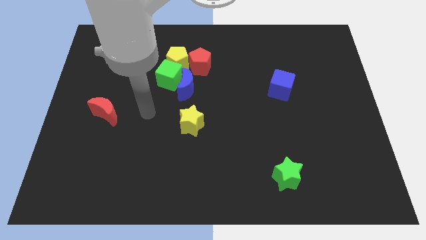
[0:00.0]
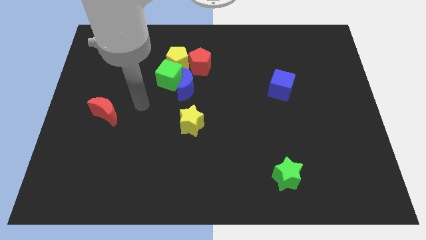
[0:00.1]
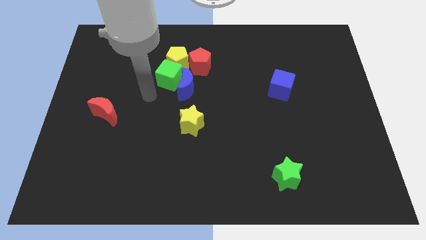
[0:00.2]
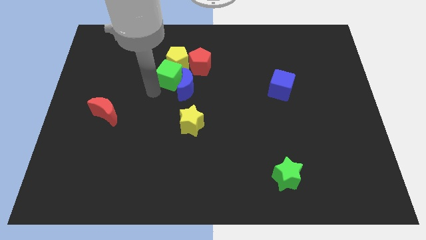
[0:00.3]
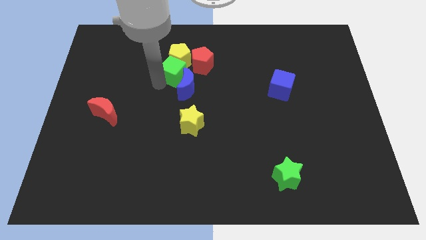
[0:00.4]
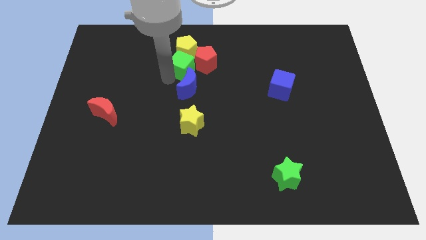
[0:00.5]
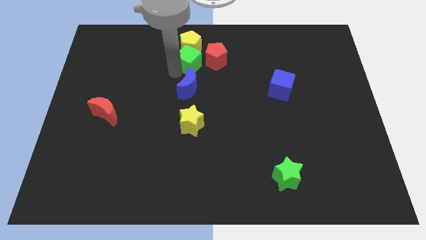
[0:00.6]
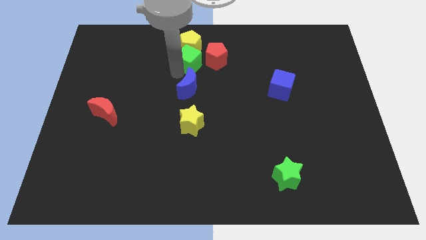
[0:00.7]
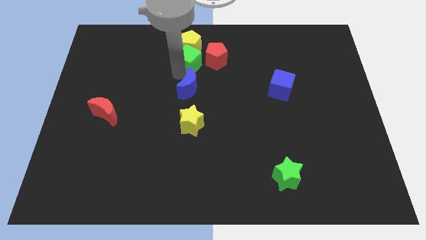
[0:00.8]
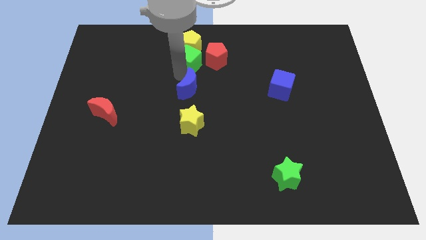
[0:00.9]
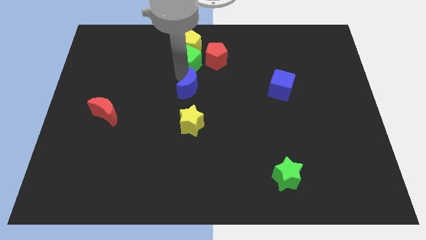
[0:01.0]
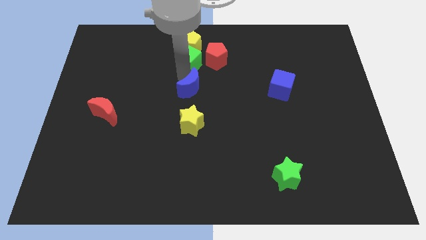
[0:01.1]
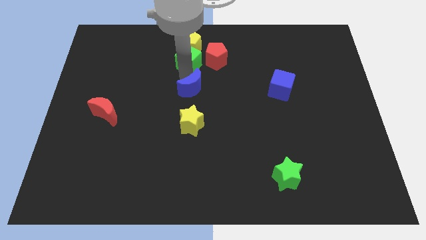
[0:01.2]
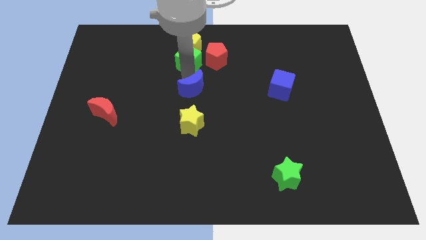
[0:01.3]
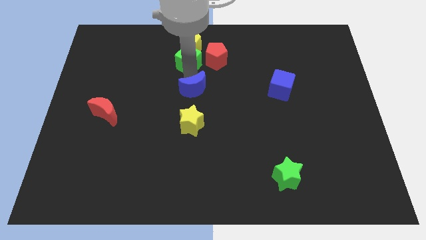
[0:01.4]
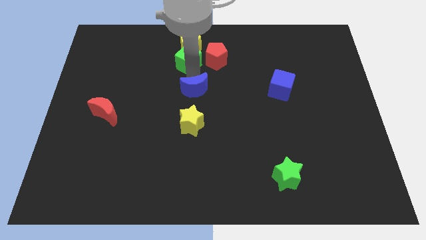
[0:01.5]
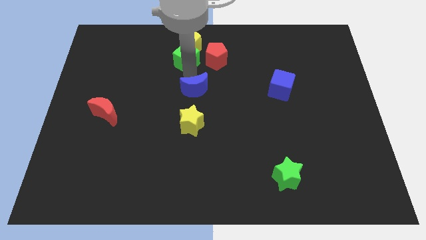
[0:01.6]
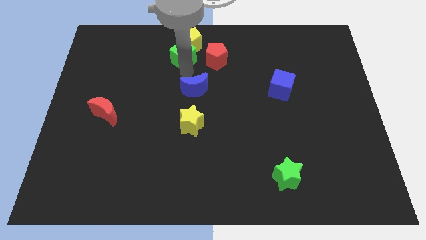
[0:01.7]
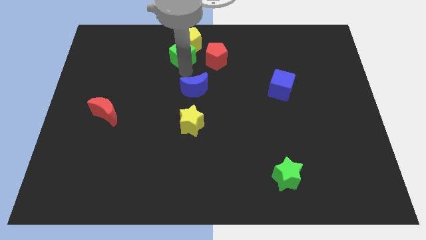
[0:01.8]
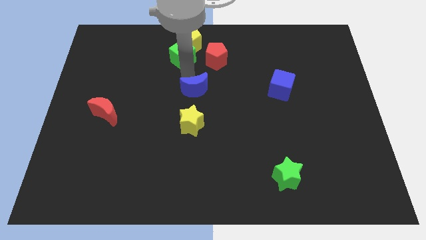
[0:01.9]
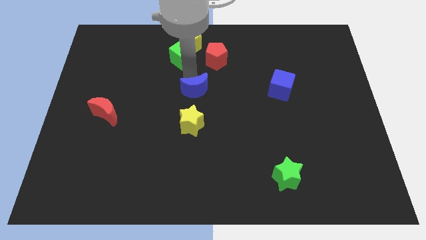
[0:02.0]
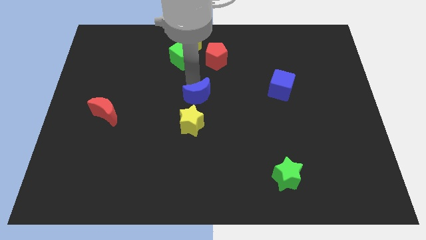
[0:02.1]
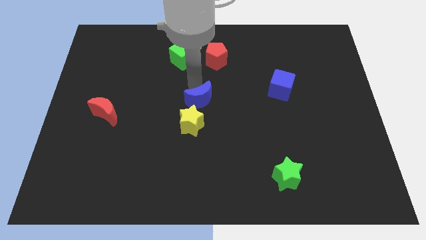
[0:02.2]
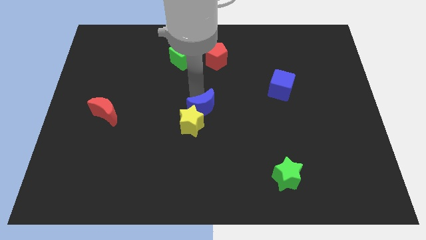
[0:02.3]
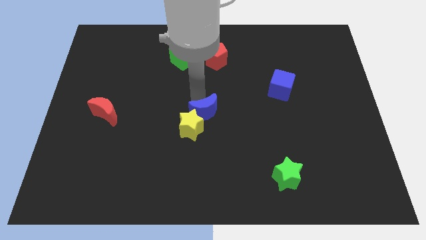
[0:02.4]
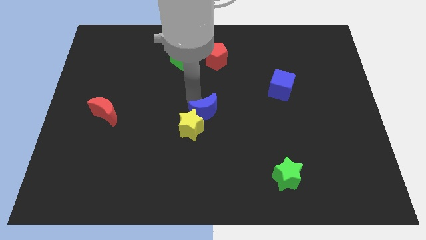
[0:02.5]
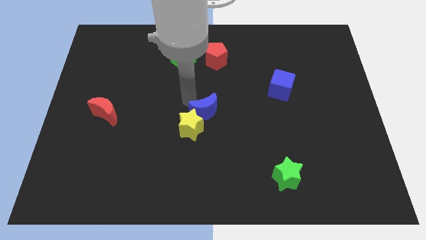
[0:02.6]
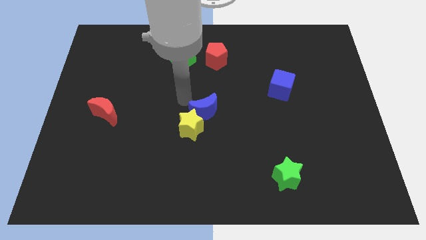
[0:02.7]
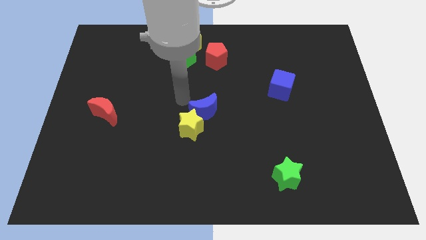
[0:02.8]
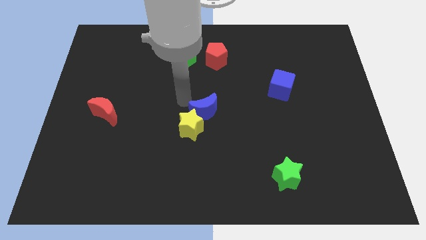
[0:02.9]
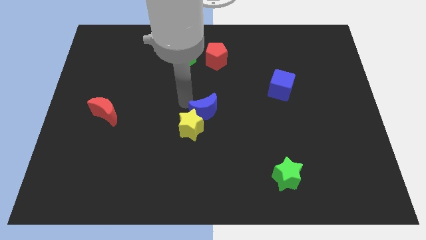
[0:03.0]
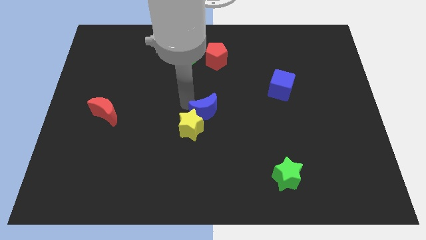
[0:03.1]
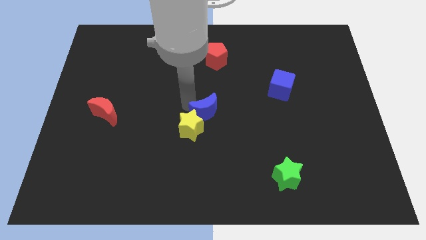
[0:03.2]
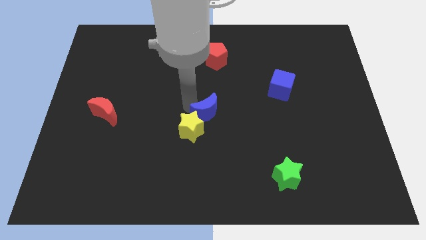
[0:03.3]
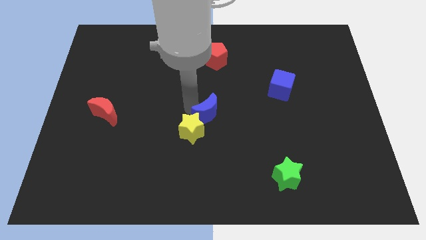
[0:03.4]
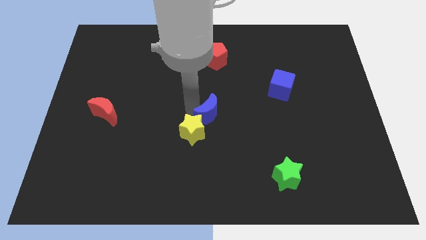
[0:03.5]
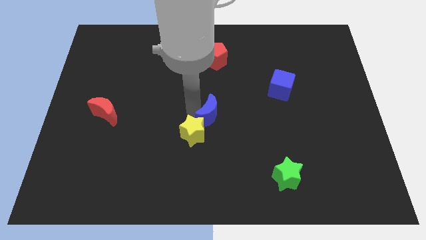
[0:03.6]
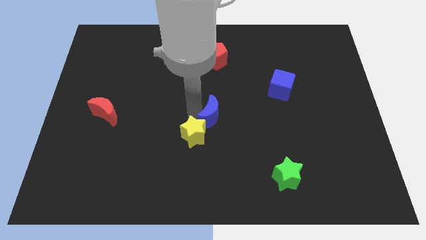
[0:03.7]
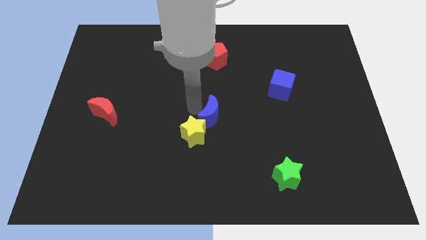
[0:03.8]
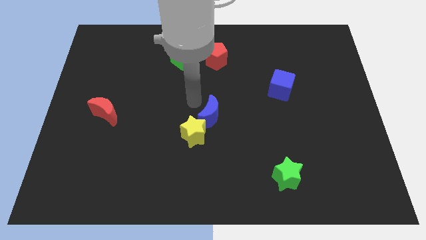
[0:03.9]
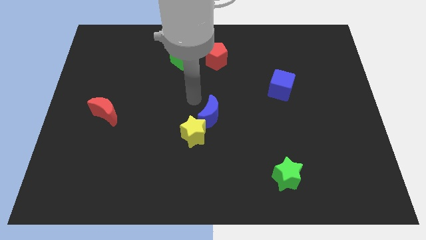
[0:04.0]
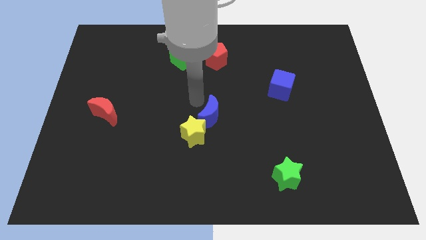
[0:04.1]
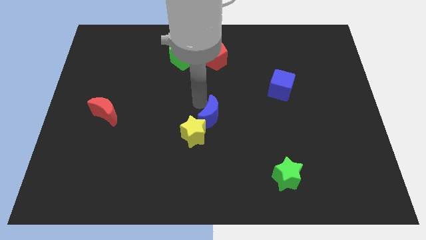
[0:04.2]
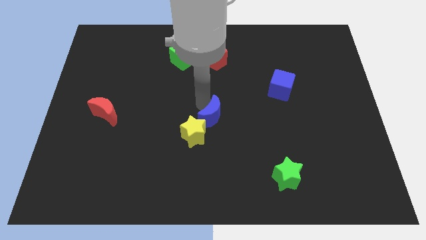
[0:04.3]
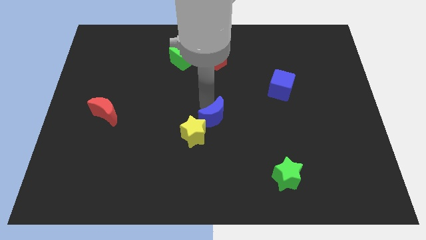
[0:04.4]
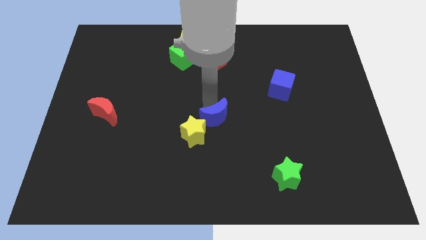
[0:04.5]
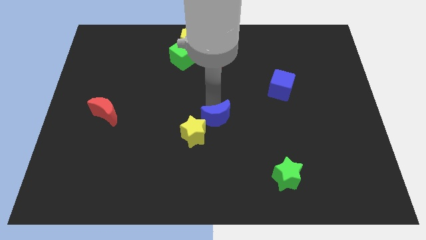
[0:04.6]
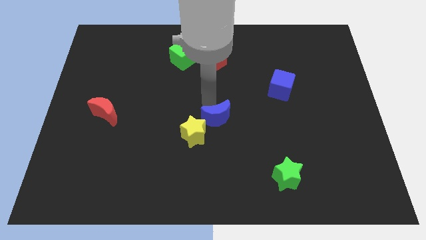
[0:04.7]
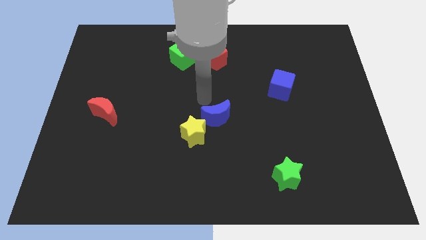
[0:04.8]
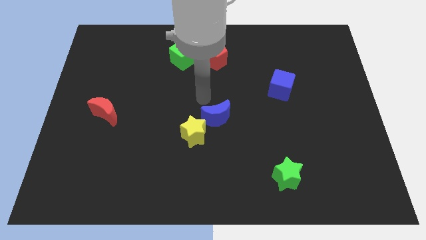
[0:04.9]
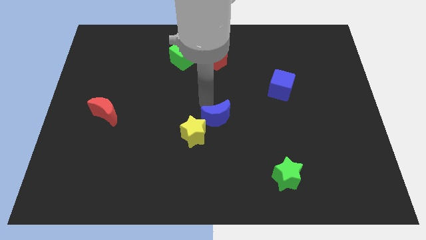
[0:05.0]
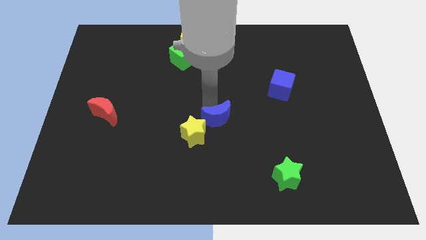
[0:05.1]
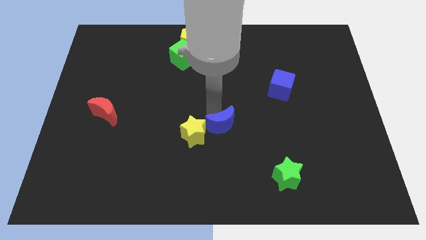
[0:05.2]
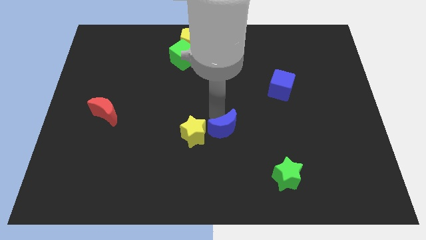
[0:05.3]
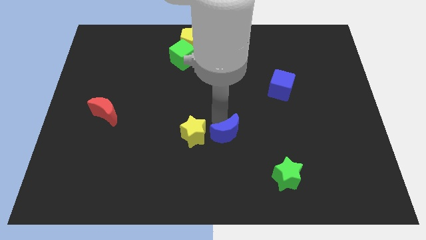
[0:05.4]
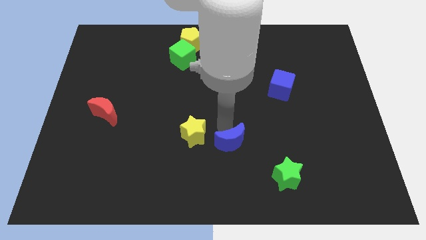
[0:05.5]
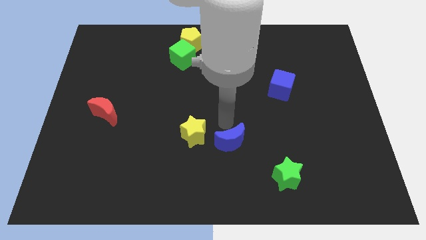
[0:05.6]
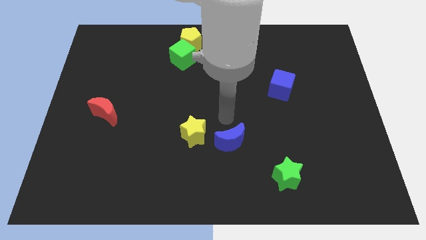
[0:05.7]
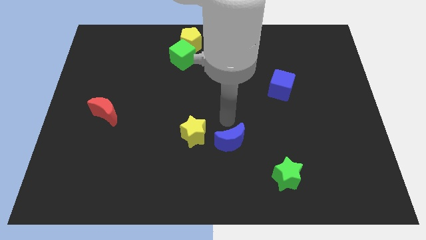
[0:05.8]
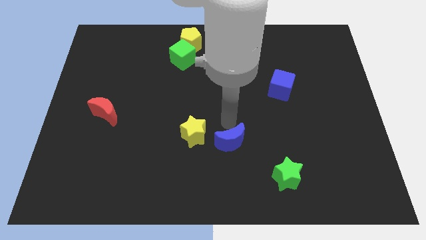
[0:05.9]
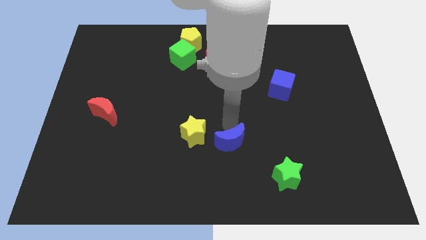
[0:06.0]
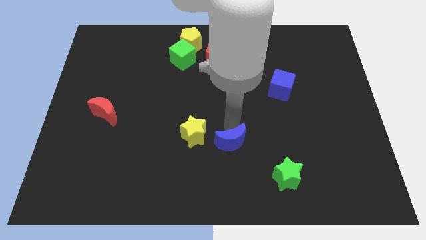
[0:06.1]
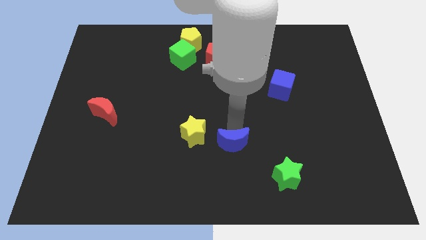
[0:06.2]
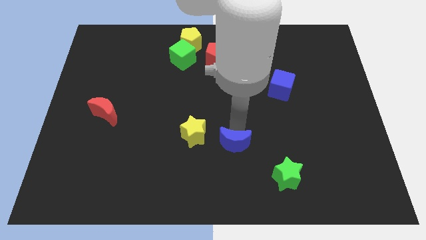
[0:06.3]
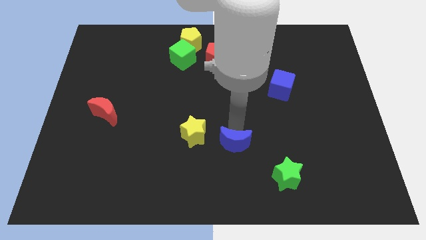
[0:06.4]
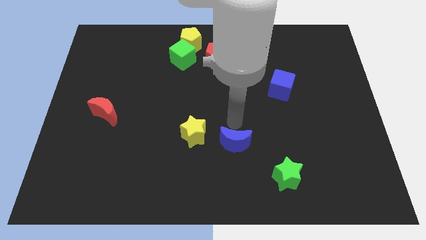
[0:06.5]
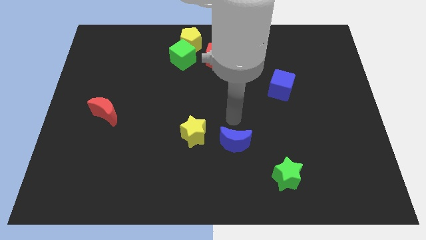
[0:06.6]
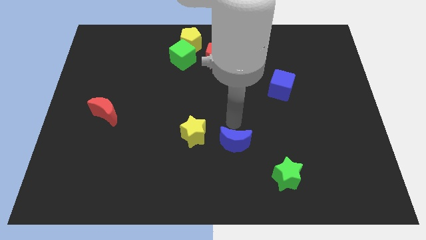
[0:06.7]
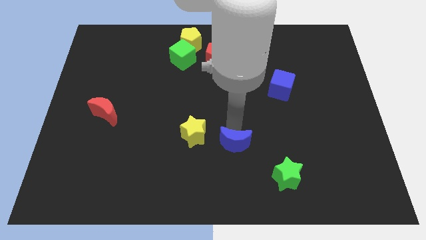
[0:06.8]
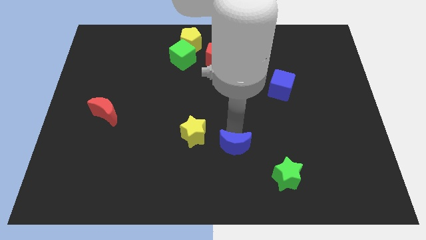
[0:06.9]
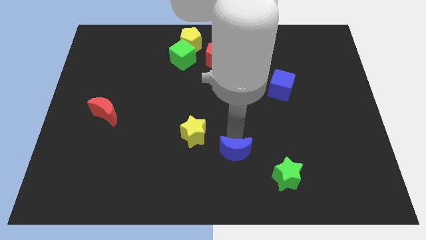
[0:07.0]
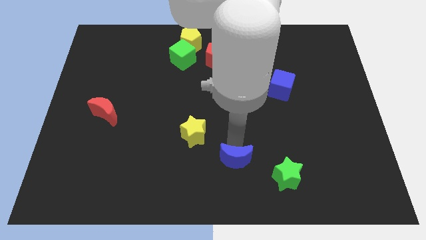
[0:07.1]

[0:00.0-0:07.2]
put the blue moon to the left of the green star

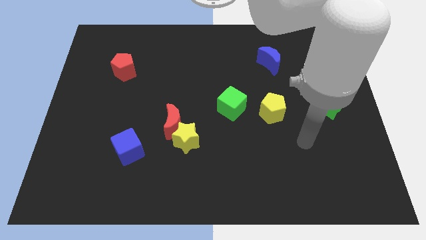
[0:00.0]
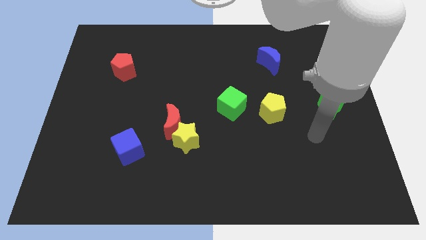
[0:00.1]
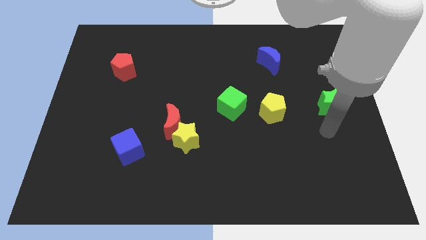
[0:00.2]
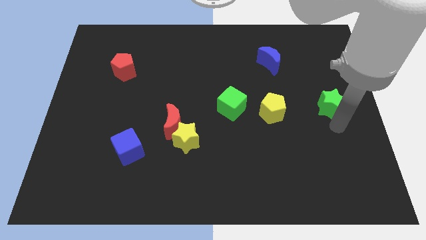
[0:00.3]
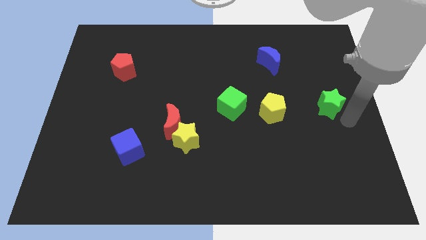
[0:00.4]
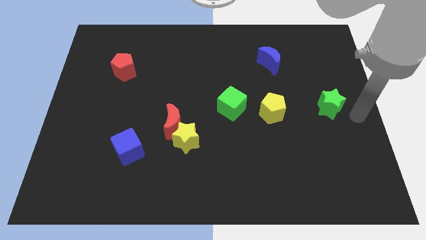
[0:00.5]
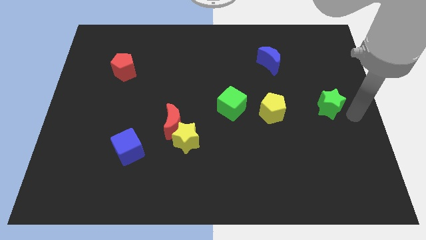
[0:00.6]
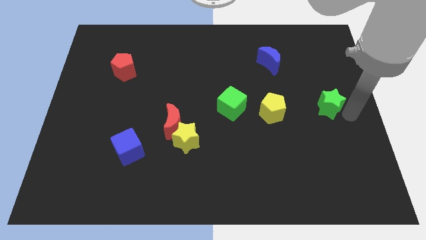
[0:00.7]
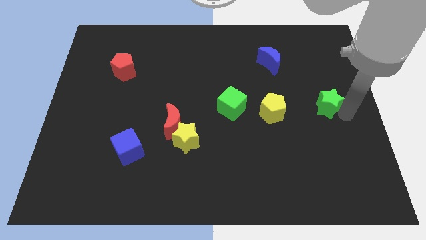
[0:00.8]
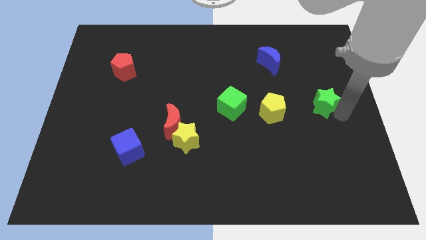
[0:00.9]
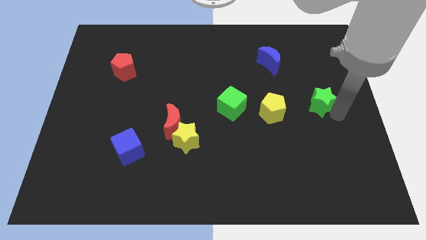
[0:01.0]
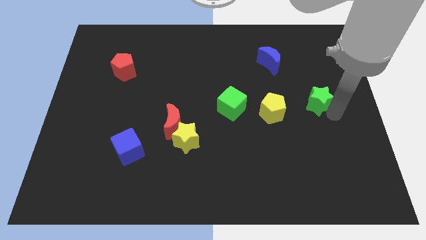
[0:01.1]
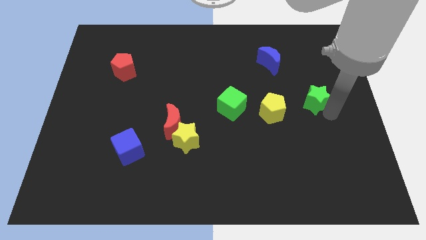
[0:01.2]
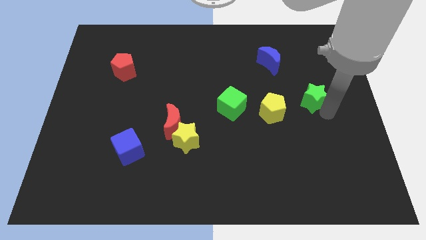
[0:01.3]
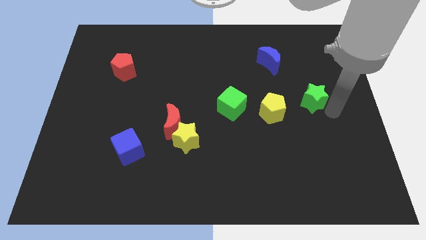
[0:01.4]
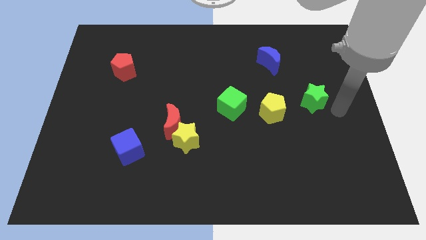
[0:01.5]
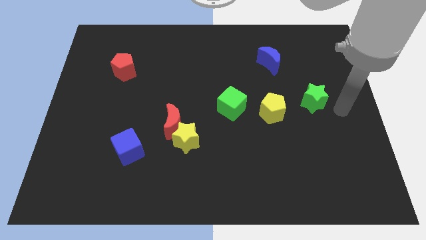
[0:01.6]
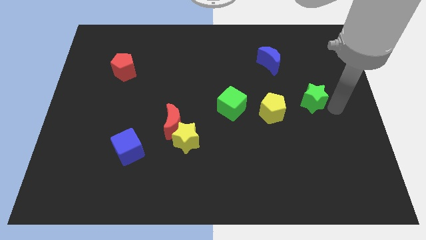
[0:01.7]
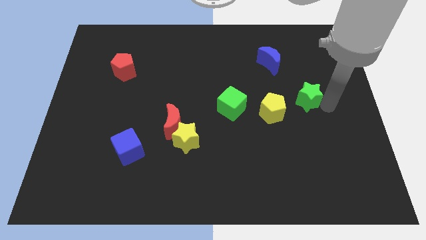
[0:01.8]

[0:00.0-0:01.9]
push the green star diagonally up and to the right of the yellow pentagon
